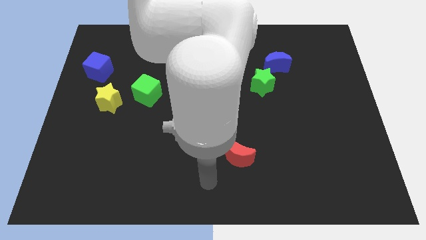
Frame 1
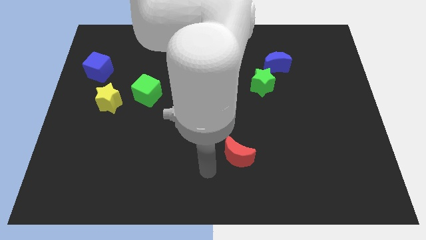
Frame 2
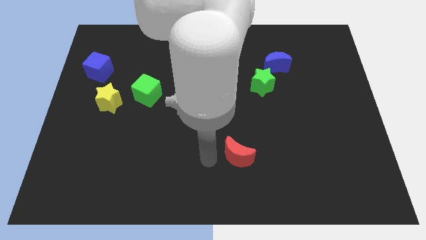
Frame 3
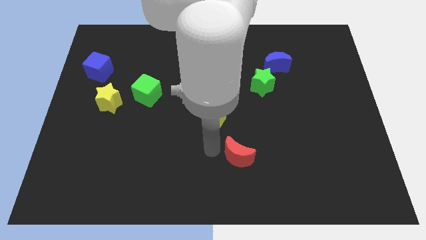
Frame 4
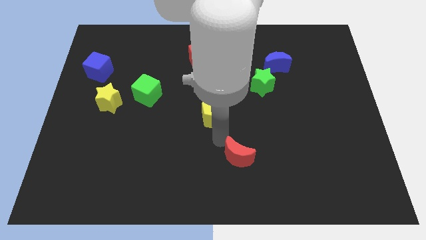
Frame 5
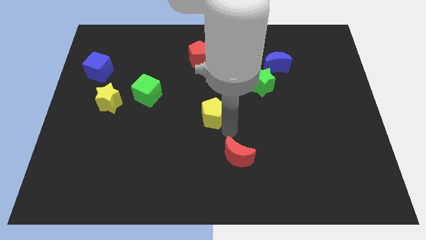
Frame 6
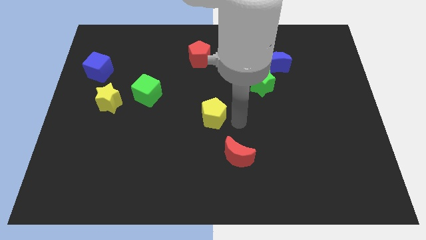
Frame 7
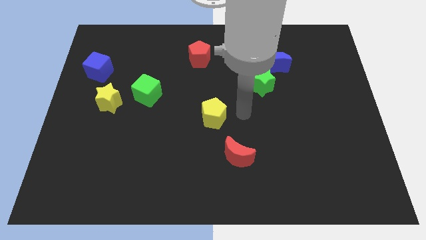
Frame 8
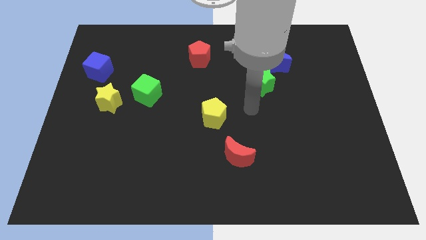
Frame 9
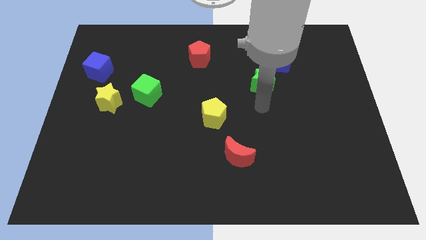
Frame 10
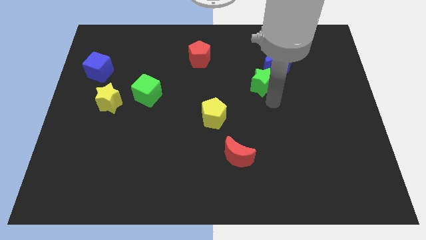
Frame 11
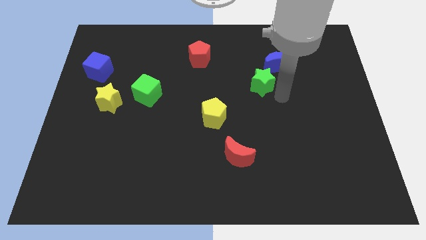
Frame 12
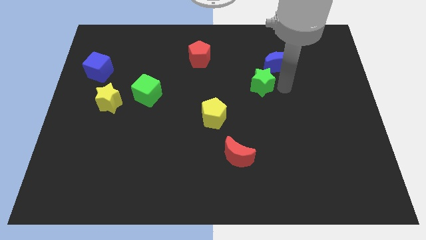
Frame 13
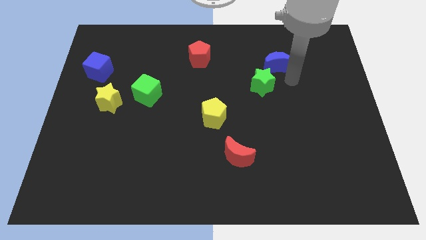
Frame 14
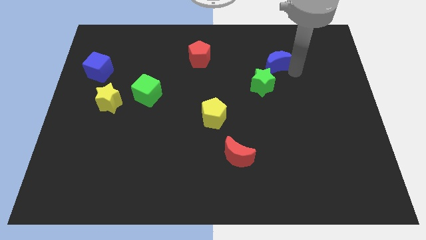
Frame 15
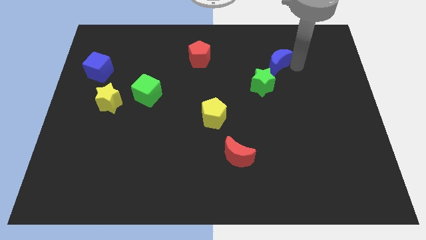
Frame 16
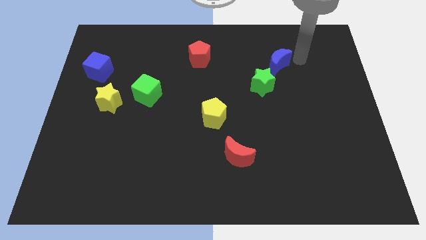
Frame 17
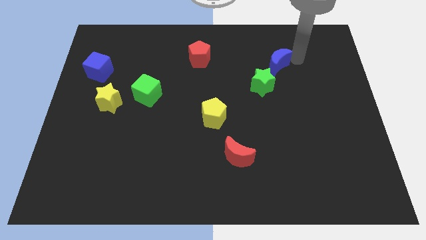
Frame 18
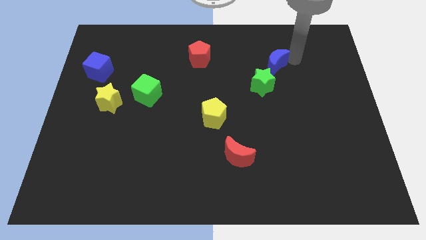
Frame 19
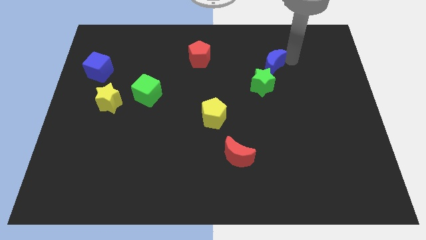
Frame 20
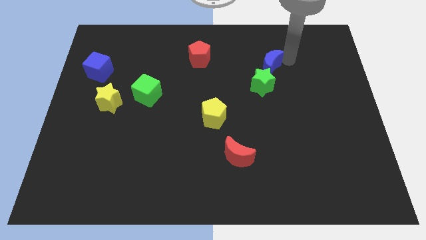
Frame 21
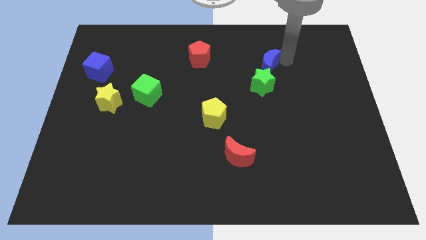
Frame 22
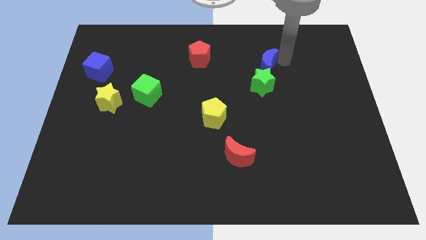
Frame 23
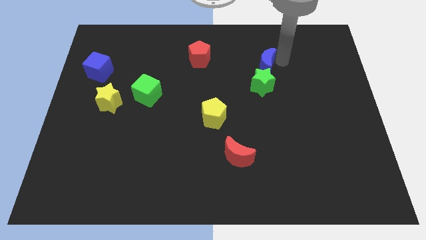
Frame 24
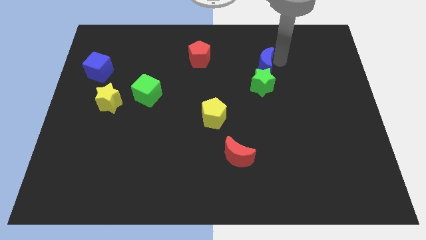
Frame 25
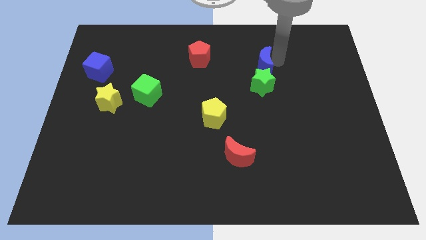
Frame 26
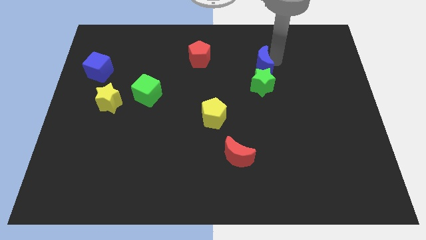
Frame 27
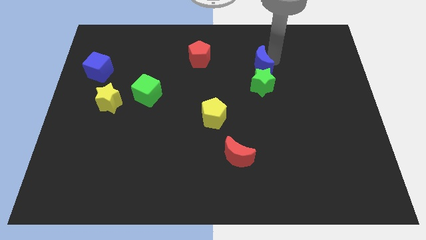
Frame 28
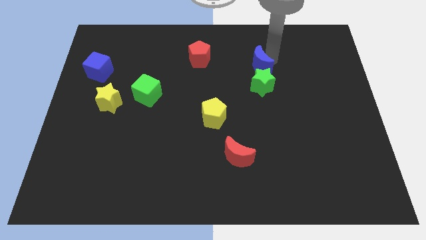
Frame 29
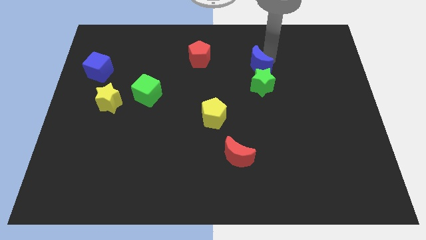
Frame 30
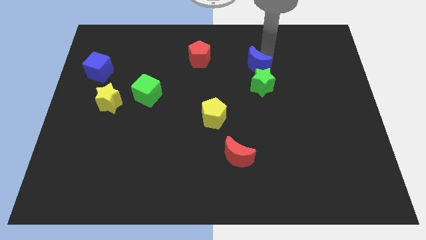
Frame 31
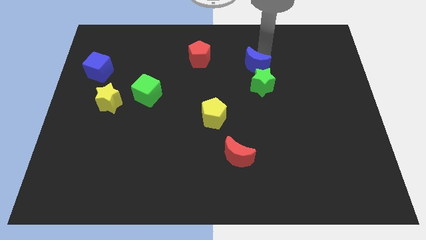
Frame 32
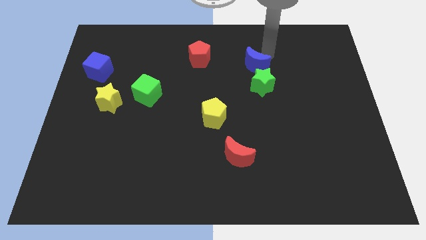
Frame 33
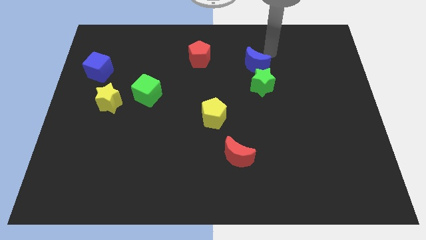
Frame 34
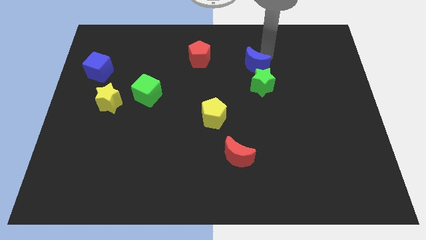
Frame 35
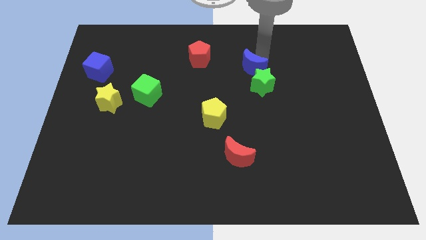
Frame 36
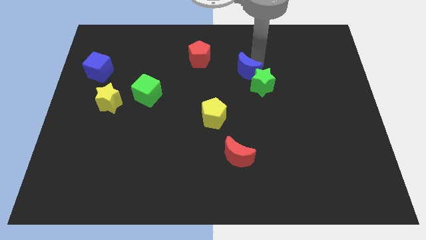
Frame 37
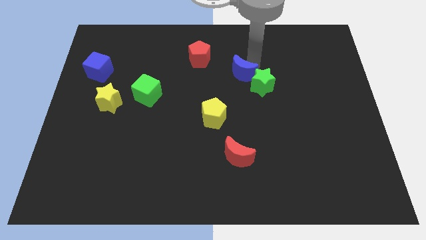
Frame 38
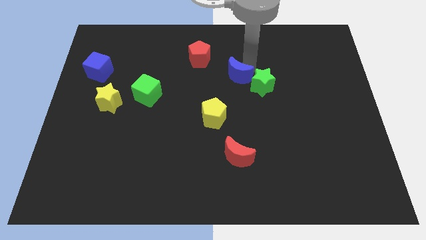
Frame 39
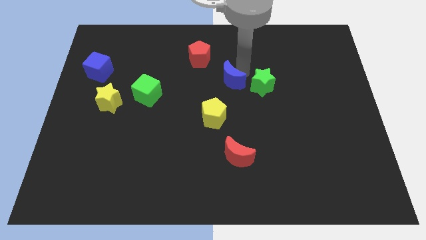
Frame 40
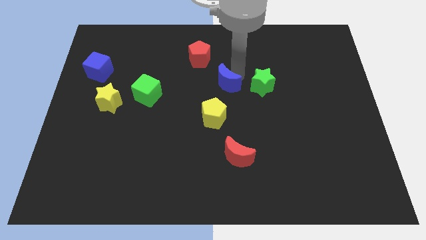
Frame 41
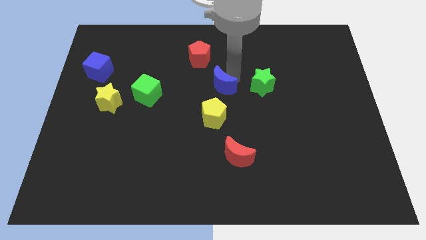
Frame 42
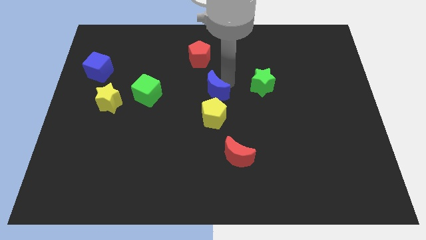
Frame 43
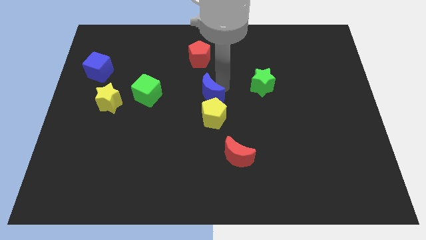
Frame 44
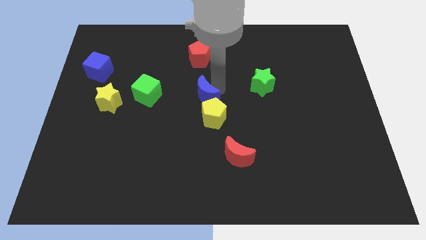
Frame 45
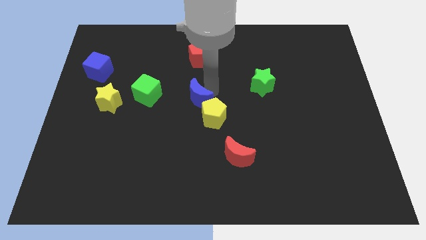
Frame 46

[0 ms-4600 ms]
move the blue moon down and then to the left

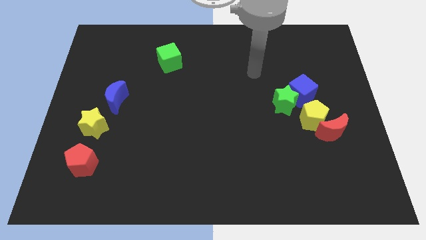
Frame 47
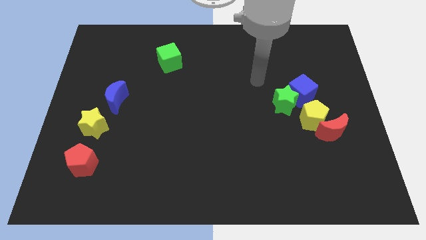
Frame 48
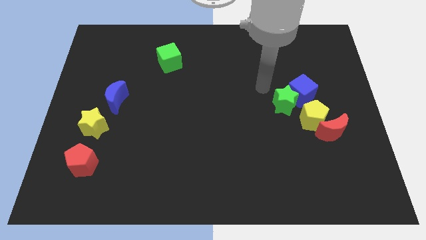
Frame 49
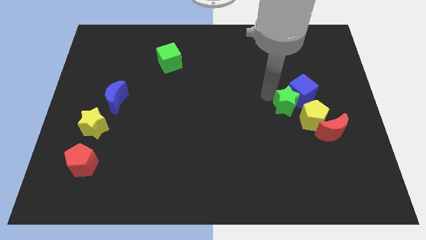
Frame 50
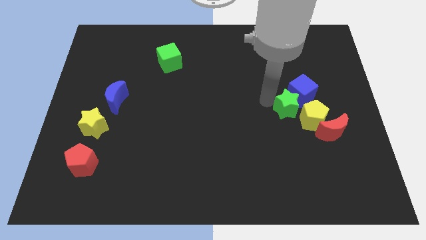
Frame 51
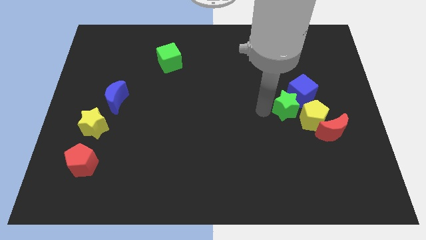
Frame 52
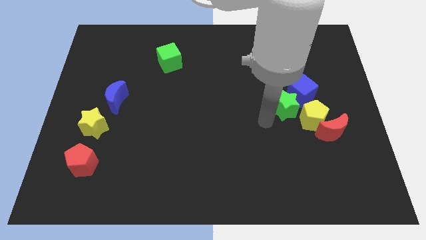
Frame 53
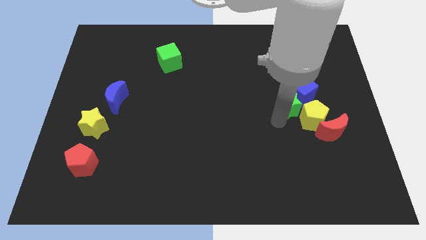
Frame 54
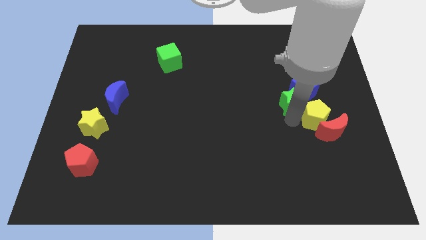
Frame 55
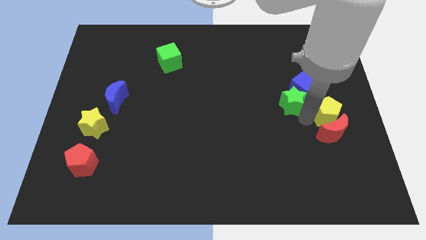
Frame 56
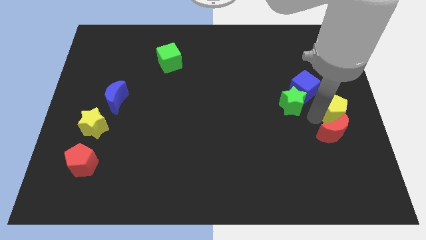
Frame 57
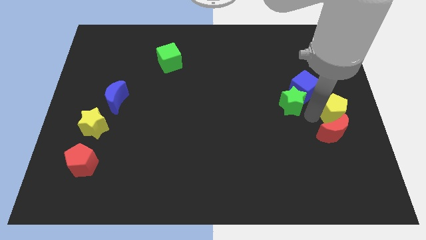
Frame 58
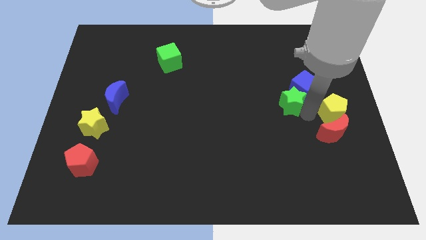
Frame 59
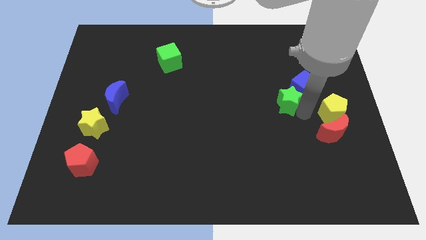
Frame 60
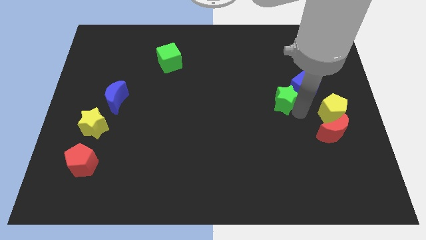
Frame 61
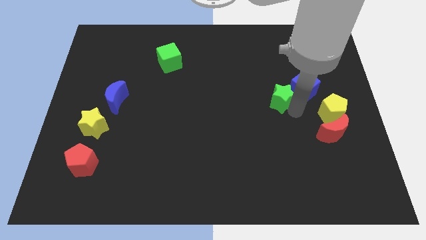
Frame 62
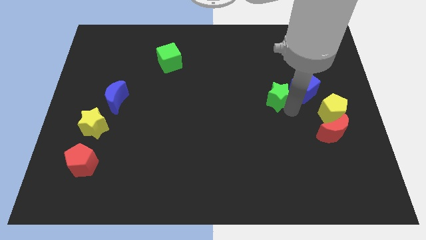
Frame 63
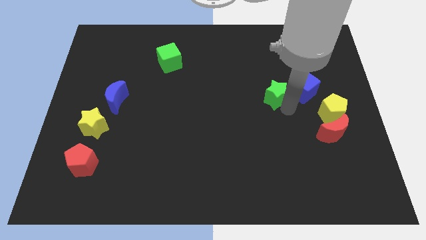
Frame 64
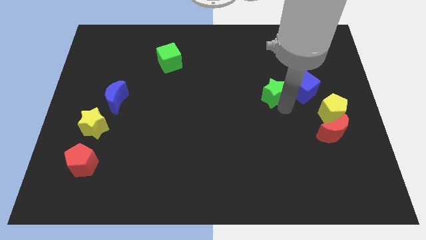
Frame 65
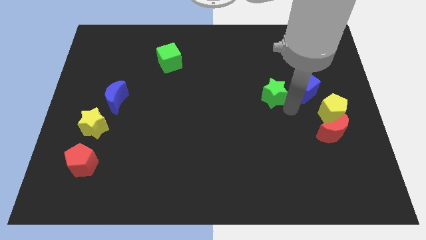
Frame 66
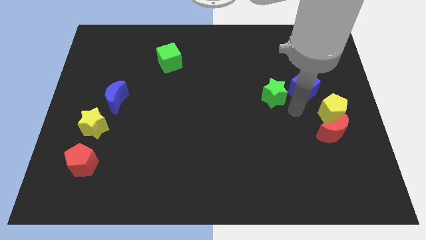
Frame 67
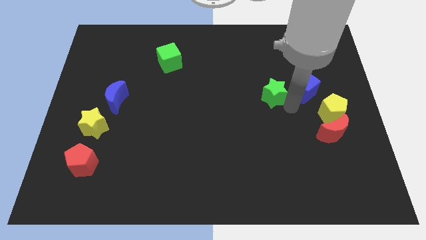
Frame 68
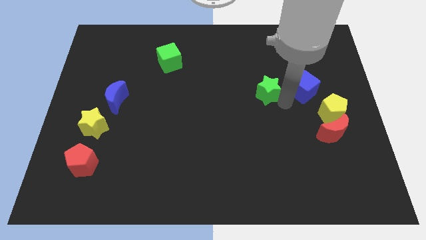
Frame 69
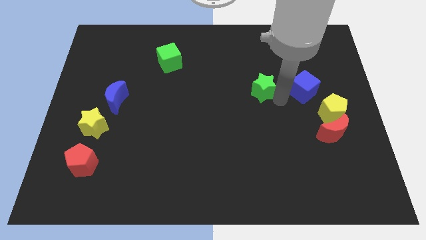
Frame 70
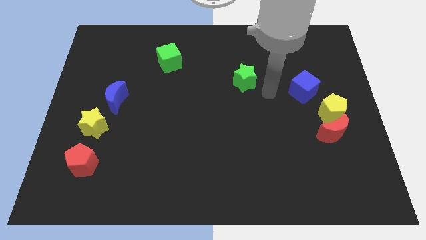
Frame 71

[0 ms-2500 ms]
move the green star a little upwards and to the left

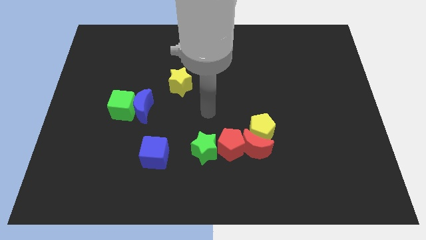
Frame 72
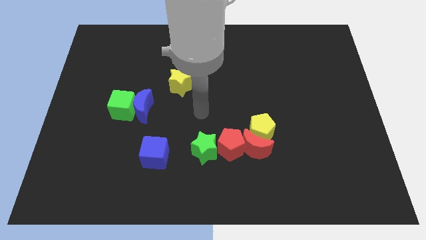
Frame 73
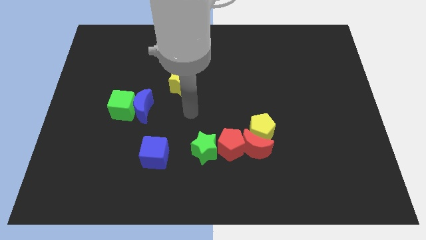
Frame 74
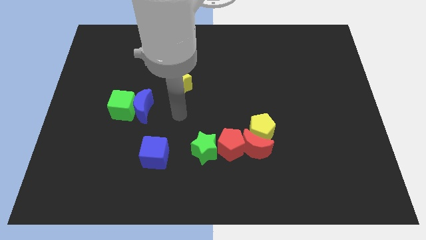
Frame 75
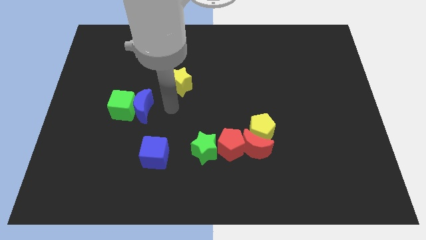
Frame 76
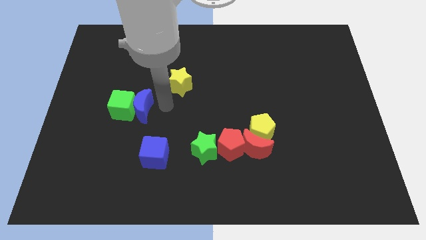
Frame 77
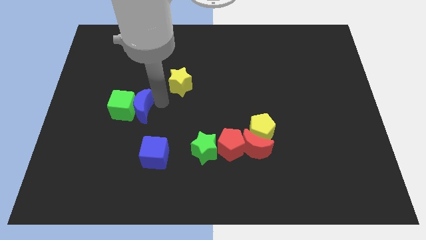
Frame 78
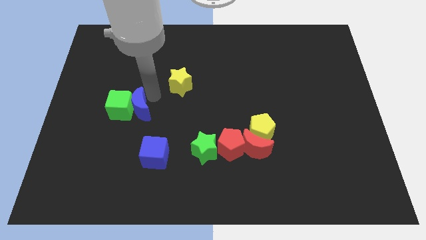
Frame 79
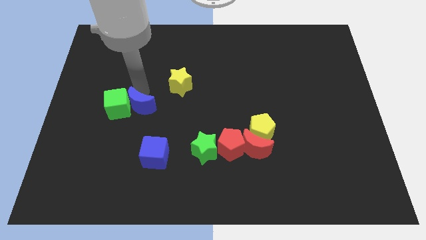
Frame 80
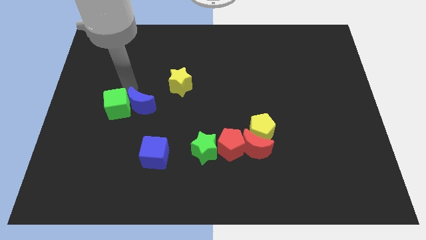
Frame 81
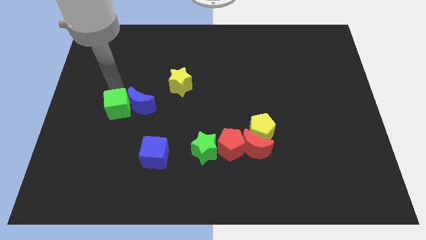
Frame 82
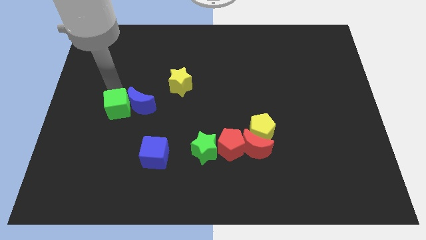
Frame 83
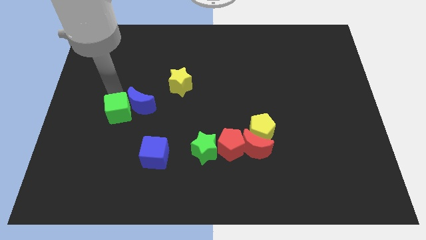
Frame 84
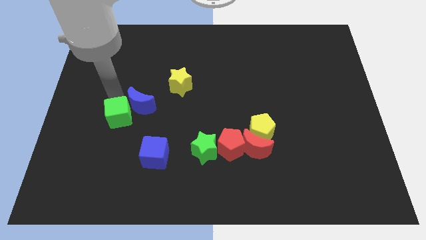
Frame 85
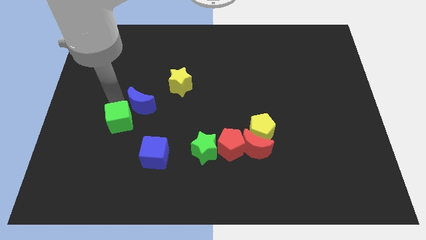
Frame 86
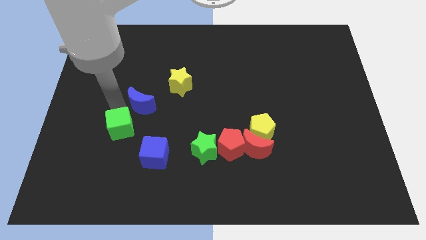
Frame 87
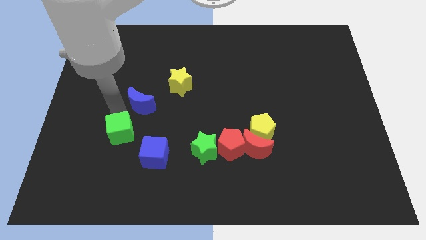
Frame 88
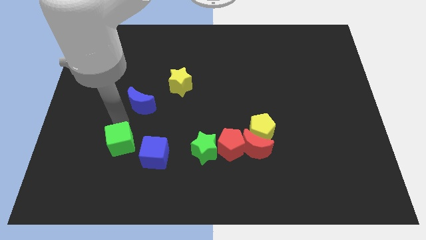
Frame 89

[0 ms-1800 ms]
push the green cube a little down
